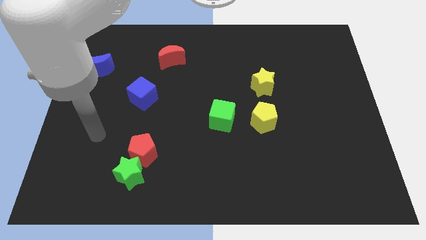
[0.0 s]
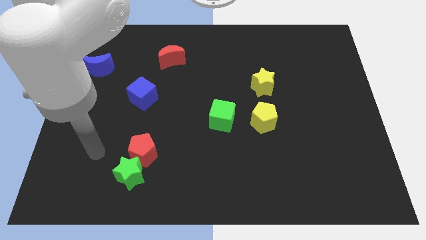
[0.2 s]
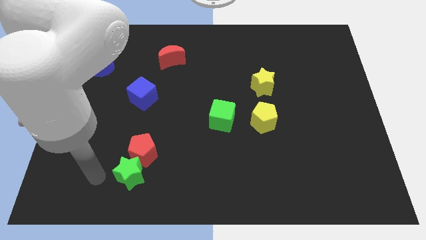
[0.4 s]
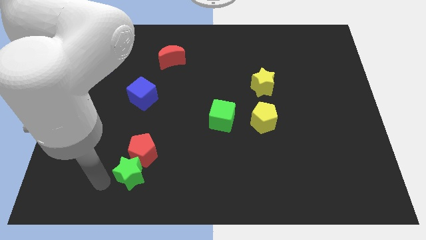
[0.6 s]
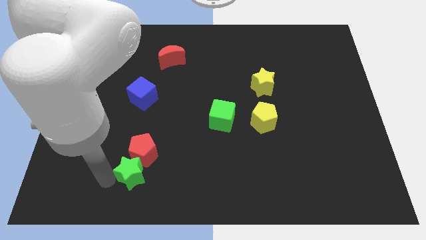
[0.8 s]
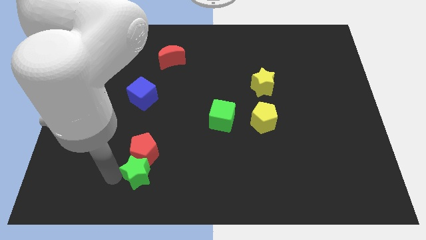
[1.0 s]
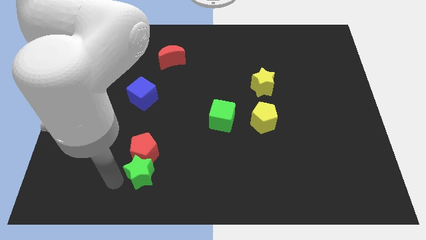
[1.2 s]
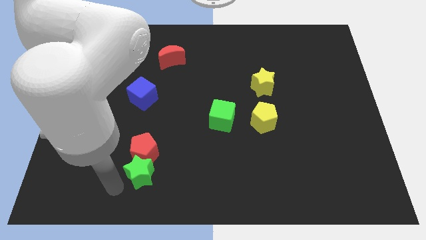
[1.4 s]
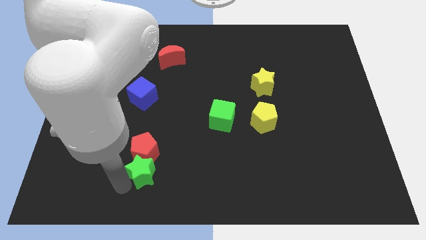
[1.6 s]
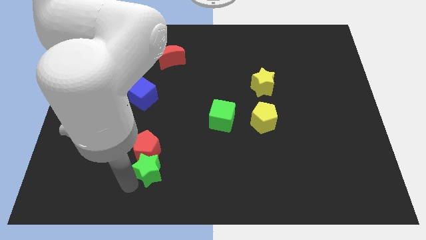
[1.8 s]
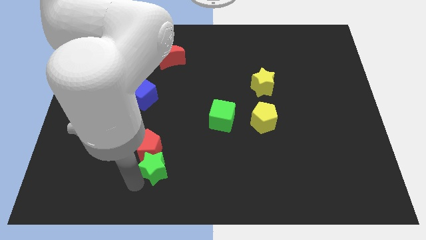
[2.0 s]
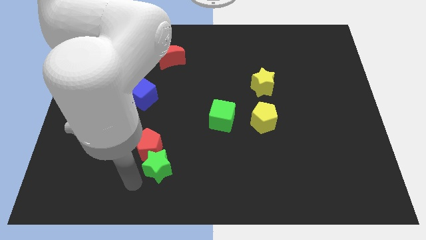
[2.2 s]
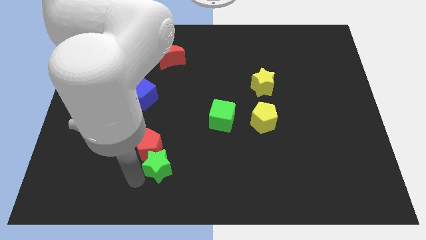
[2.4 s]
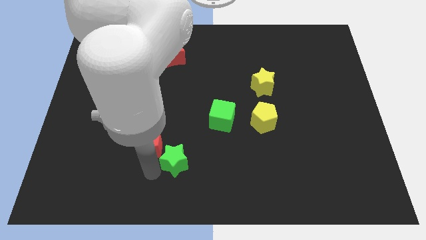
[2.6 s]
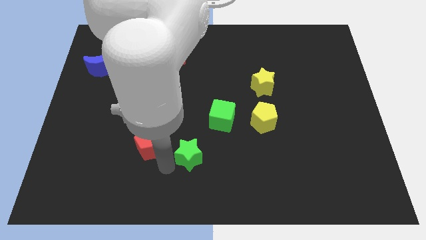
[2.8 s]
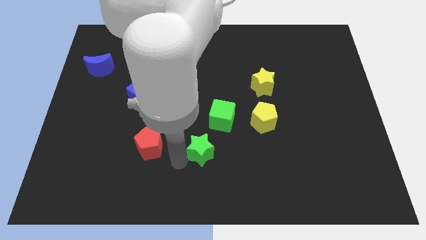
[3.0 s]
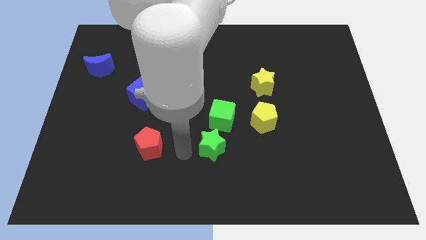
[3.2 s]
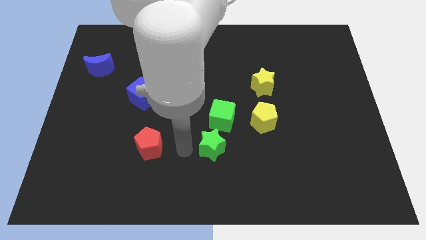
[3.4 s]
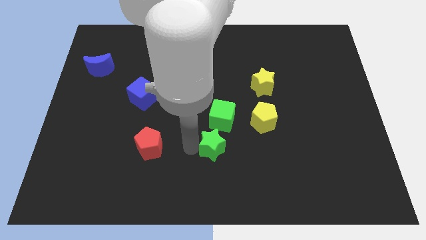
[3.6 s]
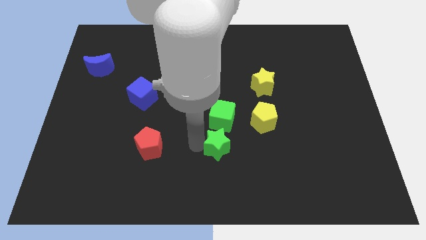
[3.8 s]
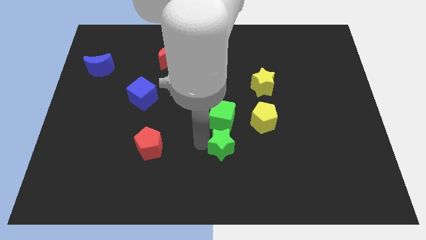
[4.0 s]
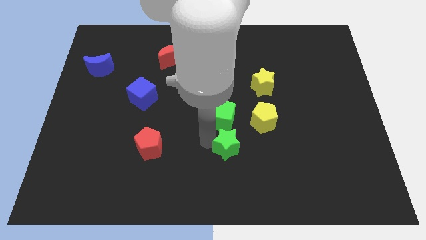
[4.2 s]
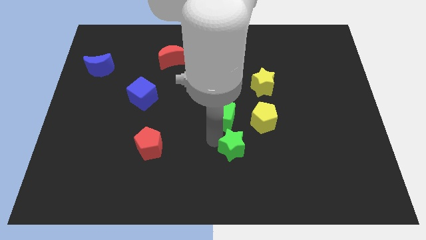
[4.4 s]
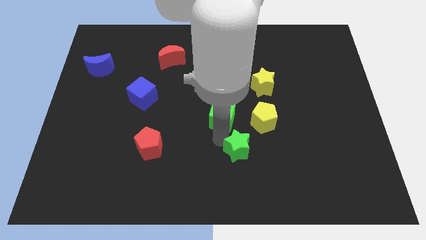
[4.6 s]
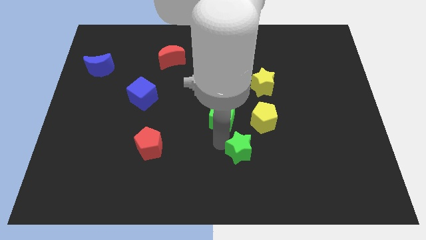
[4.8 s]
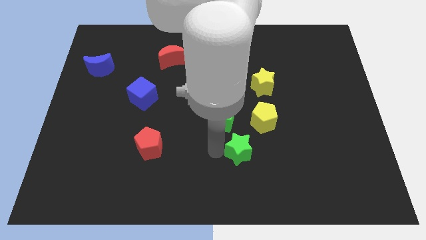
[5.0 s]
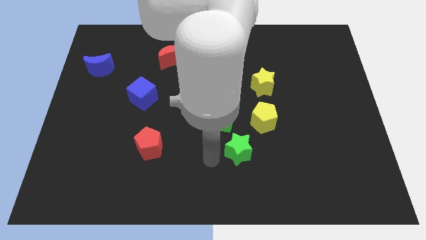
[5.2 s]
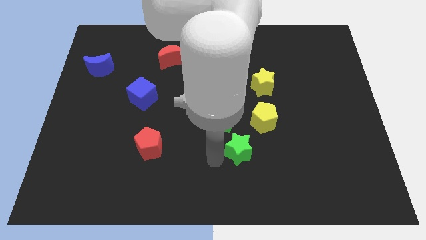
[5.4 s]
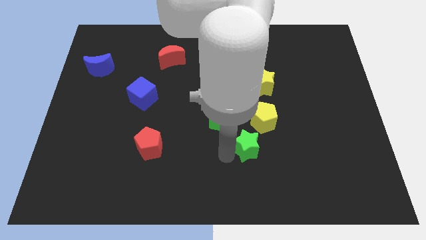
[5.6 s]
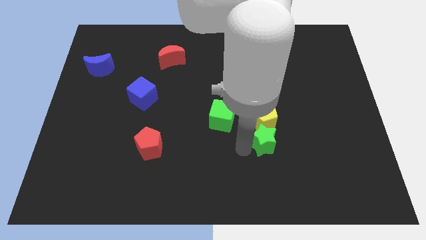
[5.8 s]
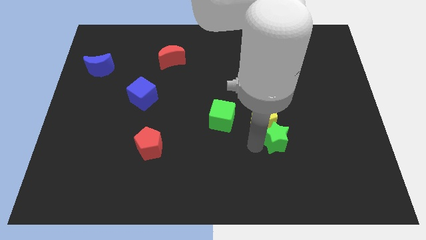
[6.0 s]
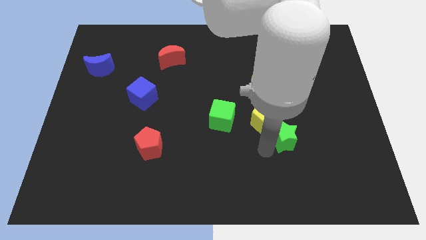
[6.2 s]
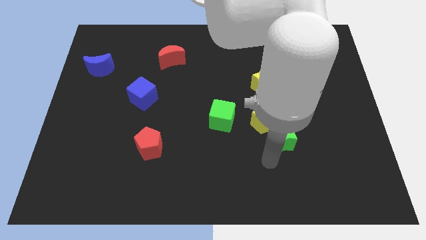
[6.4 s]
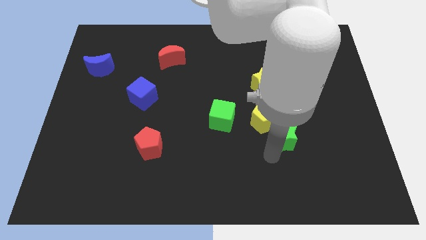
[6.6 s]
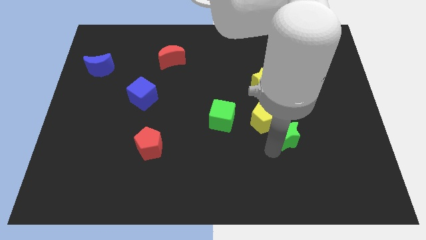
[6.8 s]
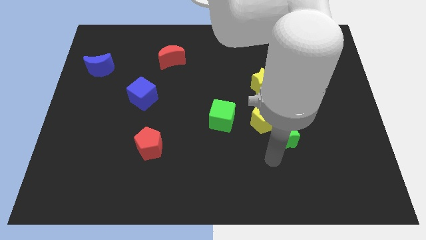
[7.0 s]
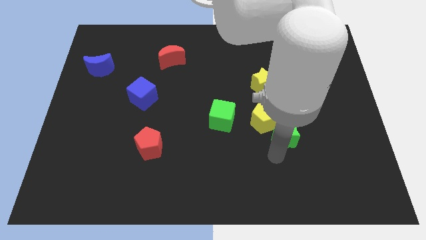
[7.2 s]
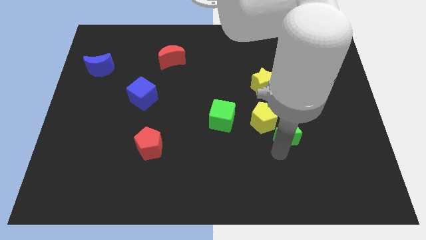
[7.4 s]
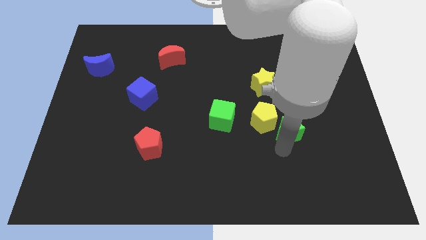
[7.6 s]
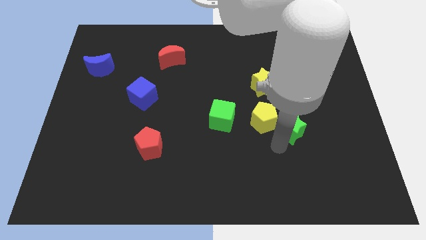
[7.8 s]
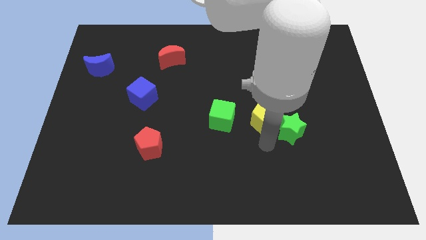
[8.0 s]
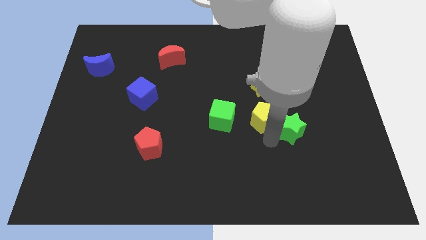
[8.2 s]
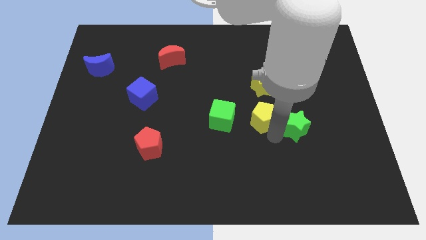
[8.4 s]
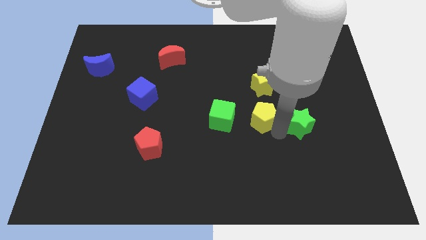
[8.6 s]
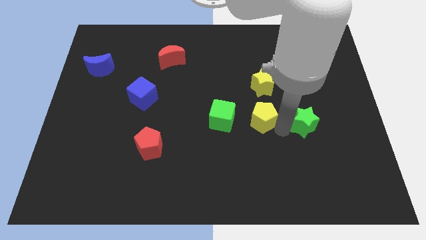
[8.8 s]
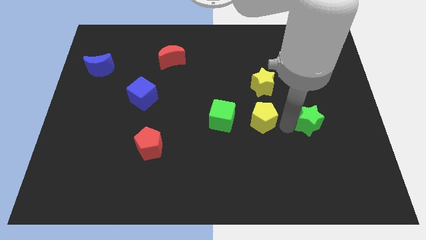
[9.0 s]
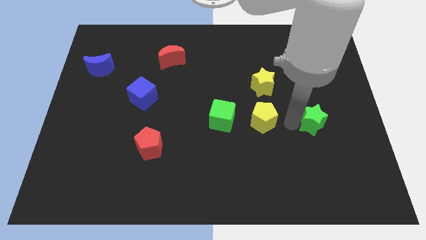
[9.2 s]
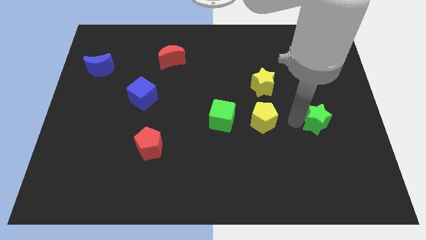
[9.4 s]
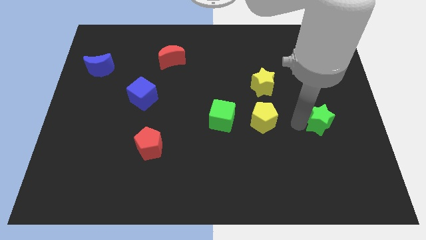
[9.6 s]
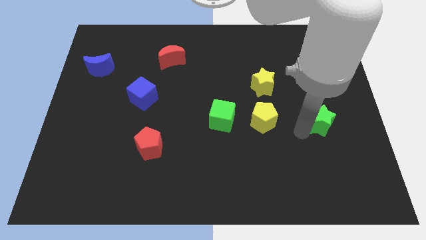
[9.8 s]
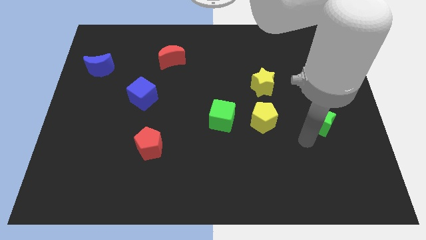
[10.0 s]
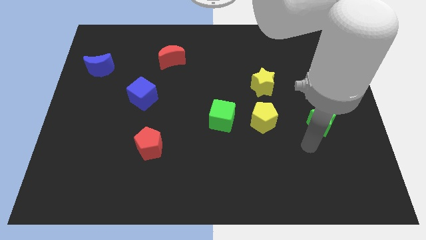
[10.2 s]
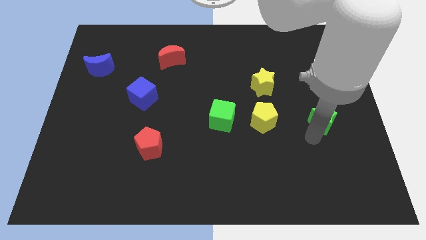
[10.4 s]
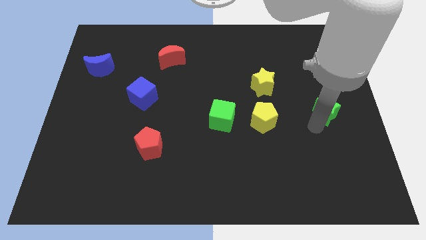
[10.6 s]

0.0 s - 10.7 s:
put the green star to the right side of the board

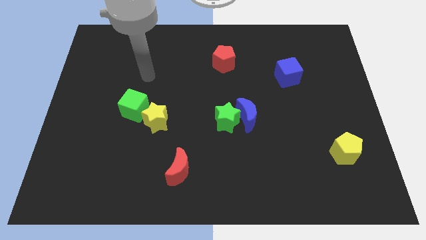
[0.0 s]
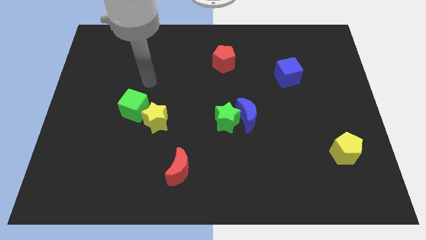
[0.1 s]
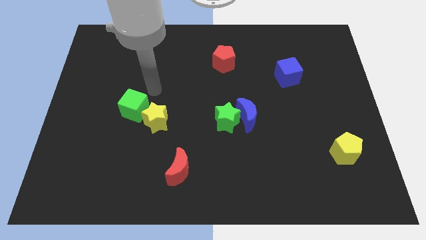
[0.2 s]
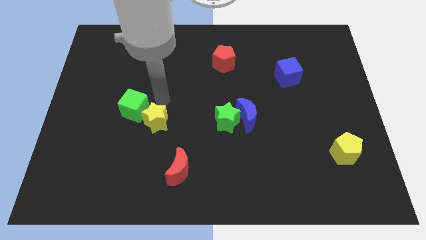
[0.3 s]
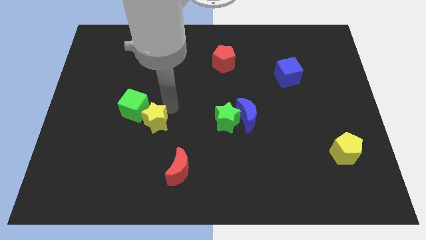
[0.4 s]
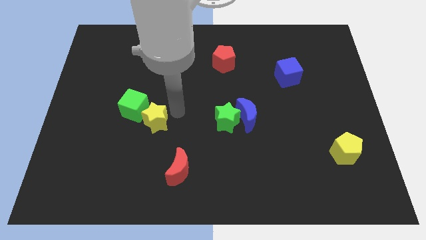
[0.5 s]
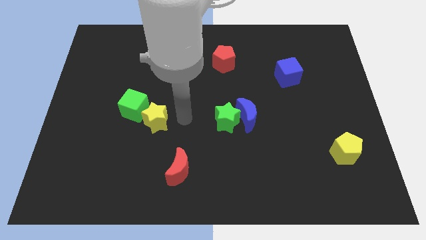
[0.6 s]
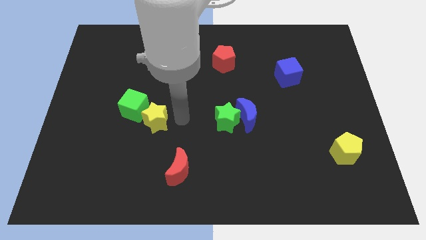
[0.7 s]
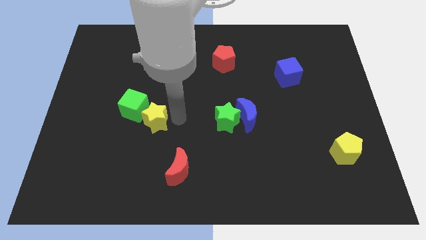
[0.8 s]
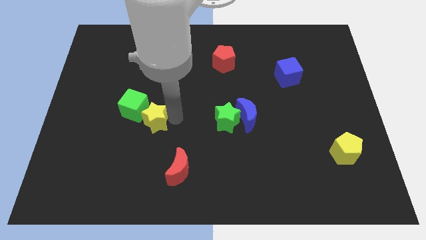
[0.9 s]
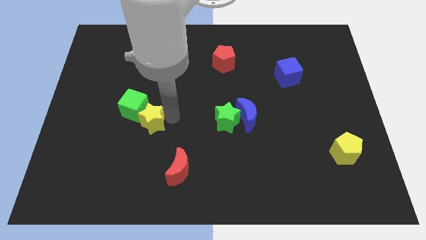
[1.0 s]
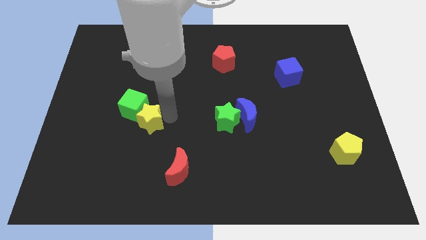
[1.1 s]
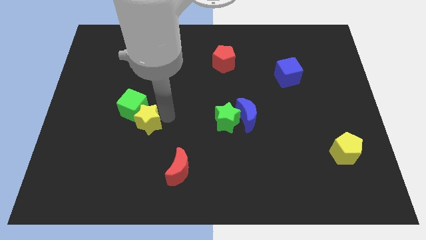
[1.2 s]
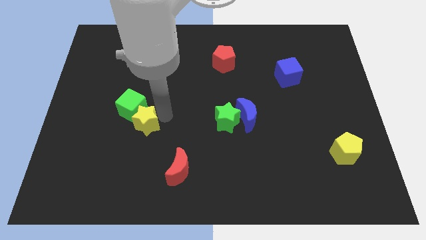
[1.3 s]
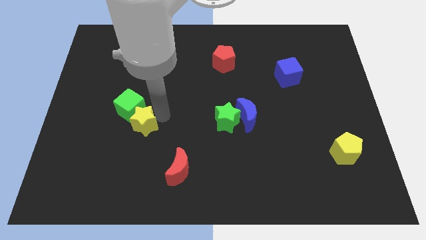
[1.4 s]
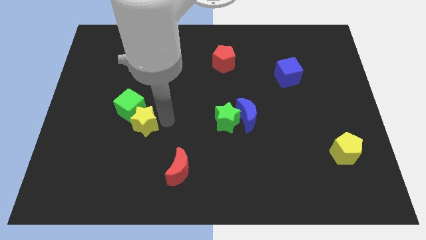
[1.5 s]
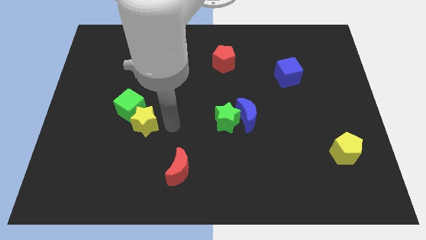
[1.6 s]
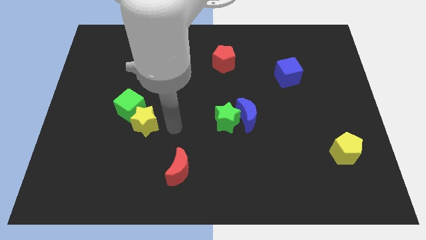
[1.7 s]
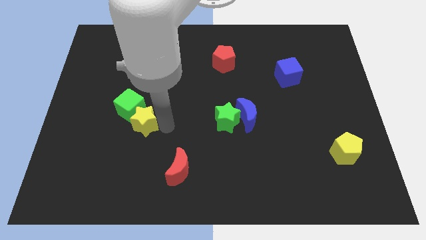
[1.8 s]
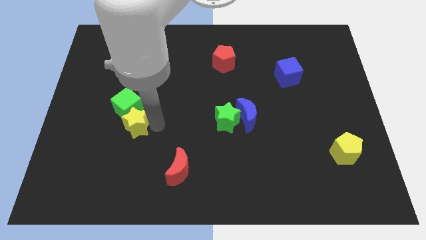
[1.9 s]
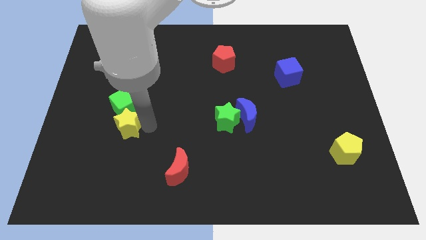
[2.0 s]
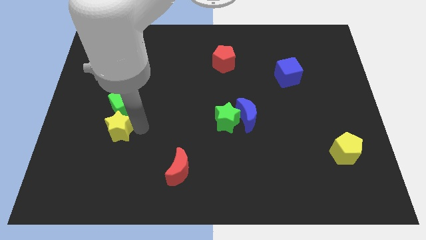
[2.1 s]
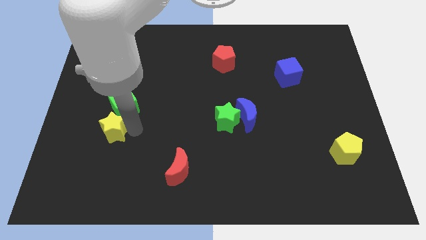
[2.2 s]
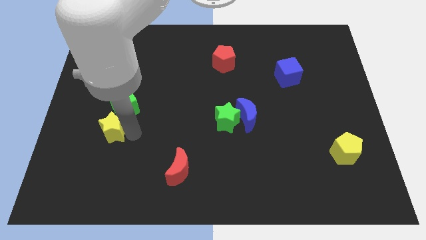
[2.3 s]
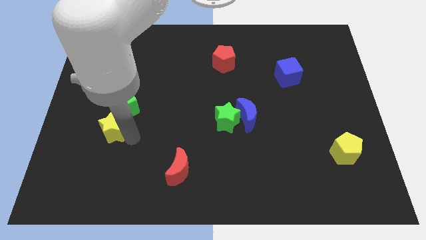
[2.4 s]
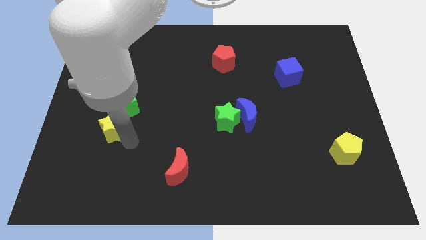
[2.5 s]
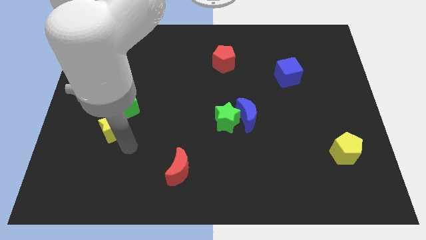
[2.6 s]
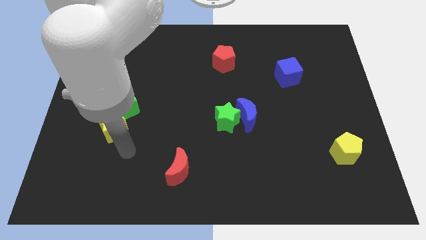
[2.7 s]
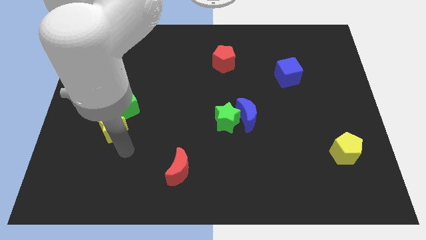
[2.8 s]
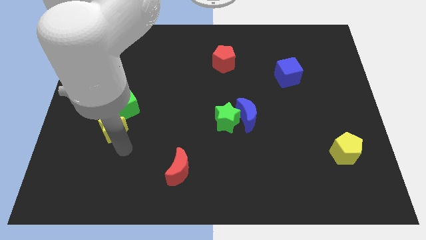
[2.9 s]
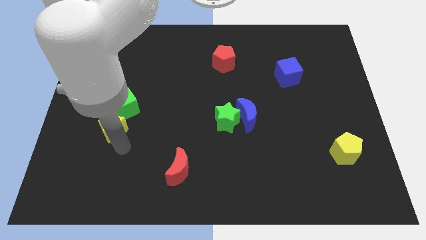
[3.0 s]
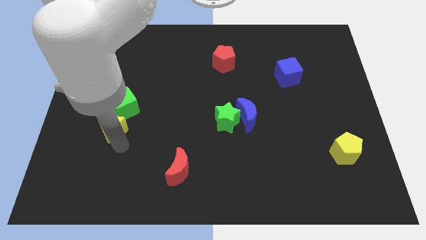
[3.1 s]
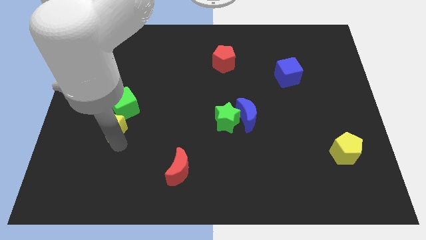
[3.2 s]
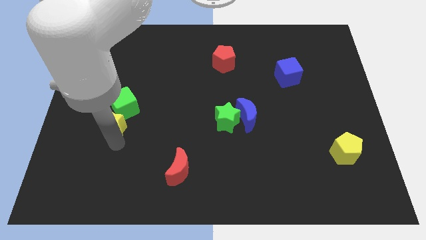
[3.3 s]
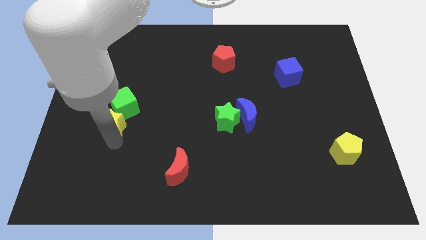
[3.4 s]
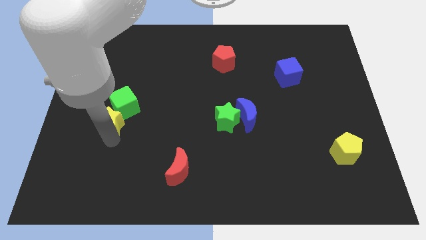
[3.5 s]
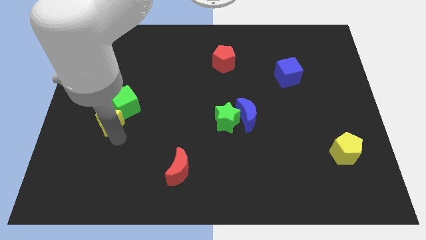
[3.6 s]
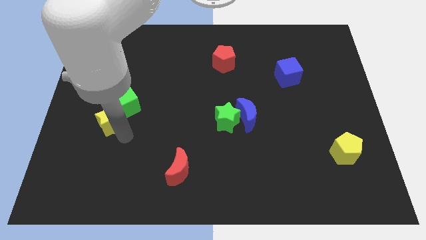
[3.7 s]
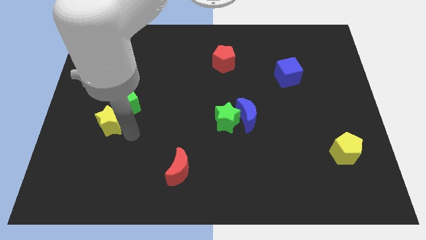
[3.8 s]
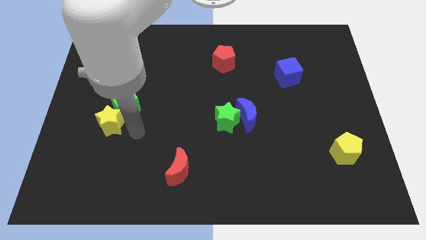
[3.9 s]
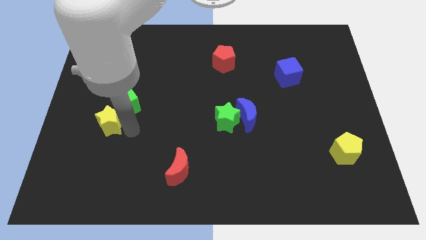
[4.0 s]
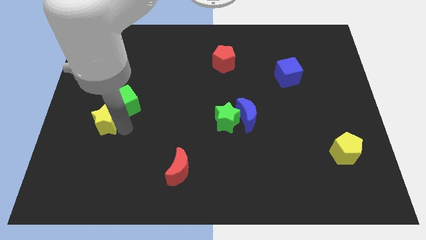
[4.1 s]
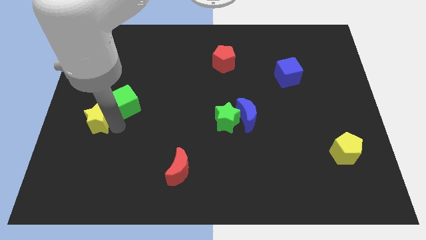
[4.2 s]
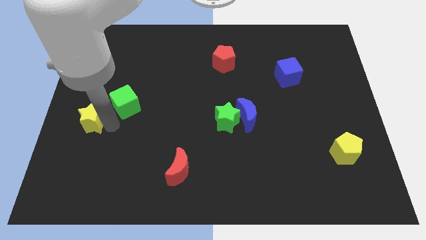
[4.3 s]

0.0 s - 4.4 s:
slide the yellow star to the left side of the board
